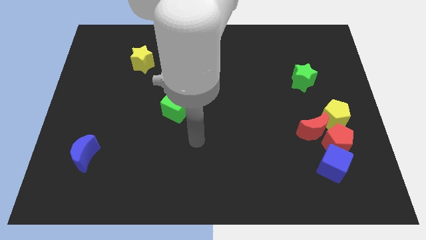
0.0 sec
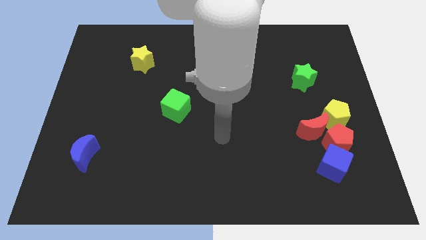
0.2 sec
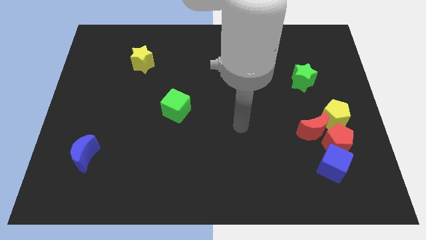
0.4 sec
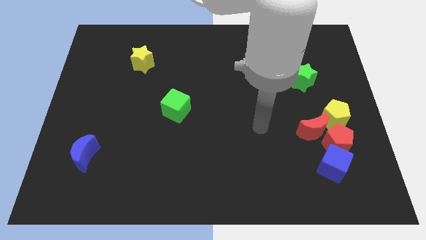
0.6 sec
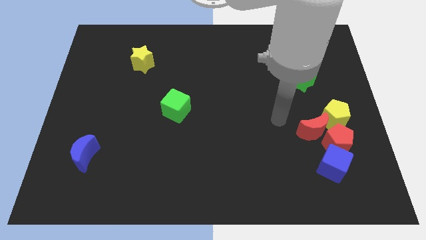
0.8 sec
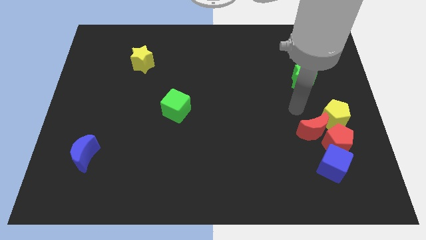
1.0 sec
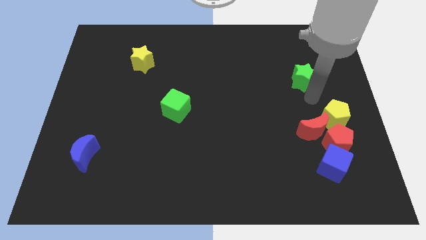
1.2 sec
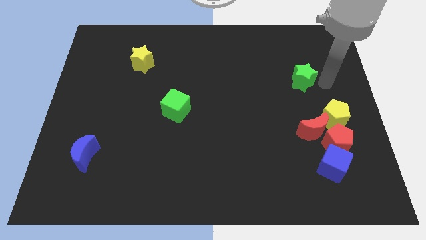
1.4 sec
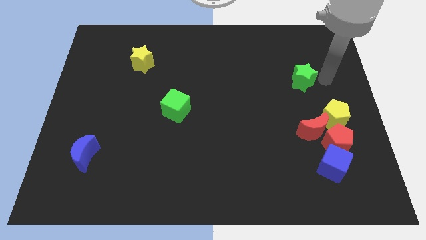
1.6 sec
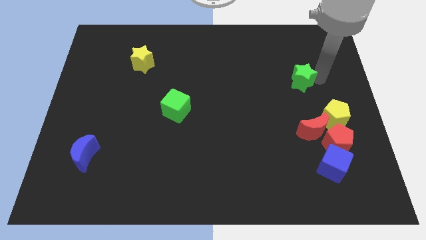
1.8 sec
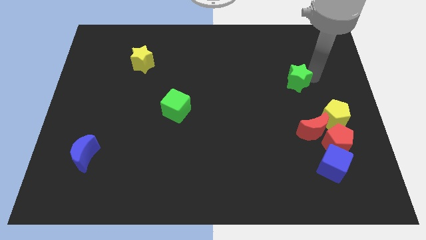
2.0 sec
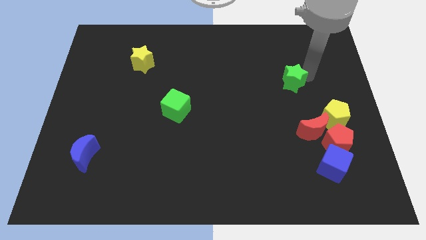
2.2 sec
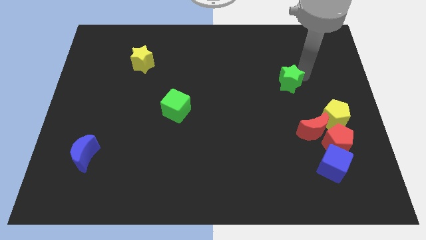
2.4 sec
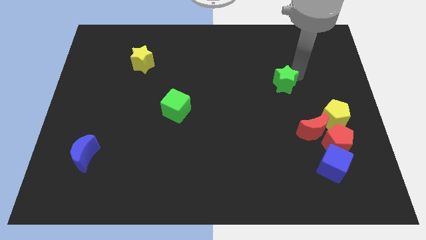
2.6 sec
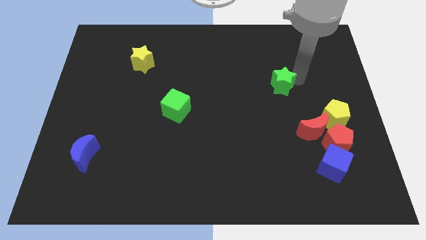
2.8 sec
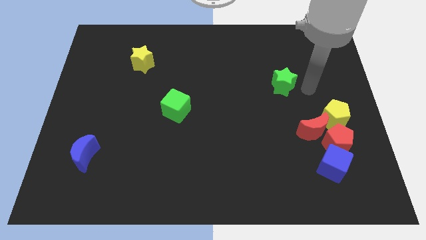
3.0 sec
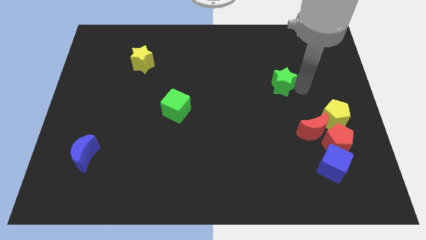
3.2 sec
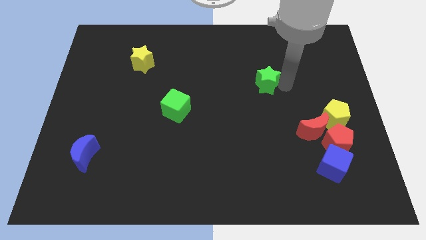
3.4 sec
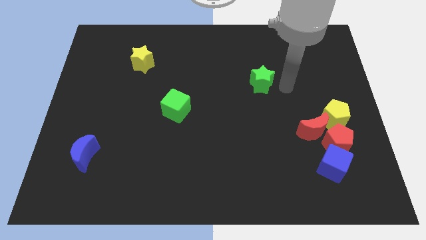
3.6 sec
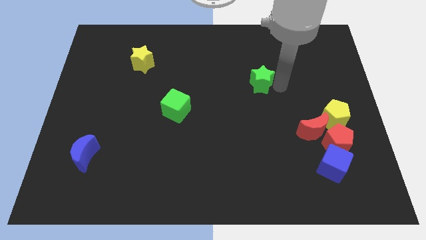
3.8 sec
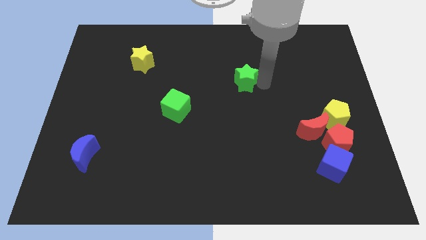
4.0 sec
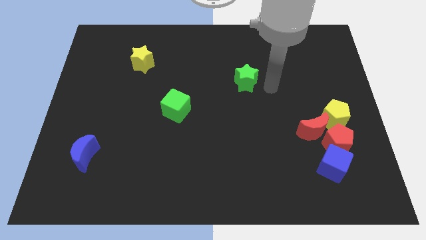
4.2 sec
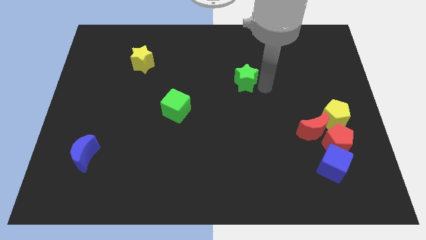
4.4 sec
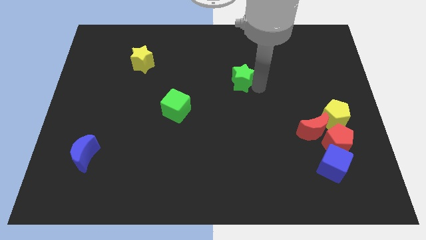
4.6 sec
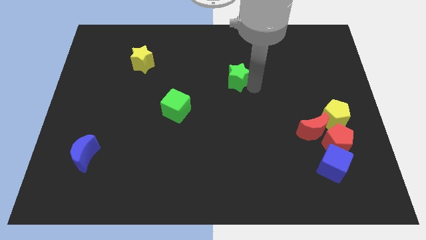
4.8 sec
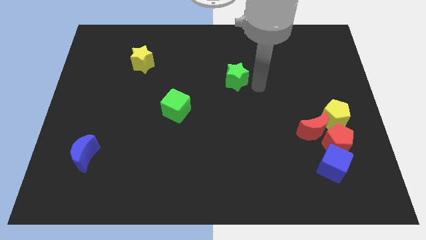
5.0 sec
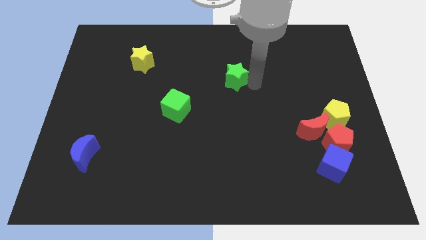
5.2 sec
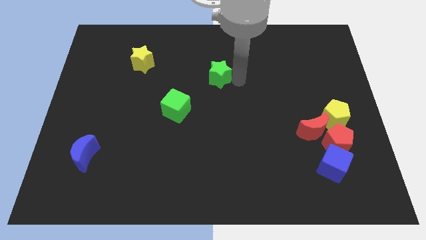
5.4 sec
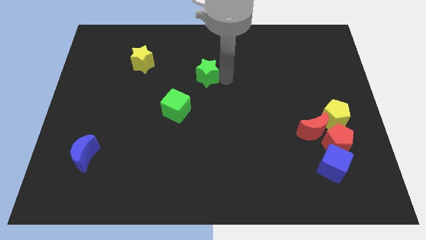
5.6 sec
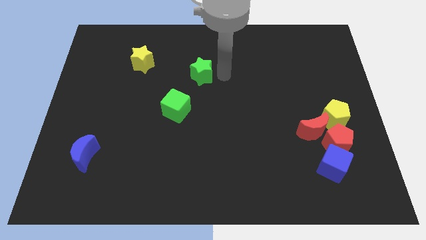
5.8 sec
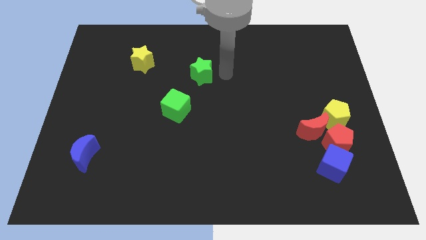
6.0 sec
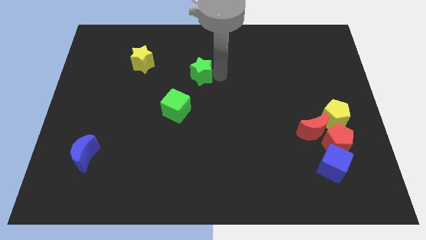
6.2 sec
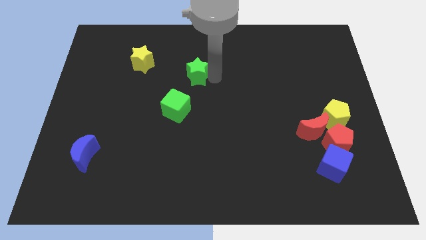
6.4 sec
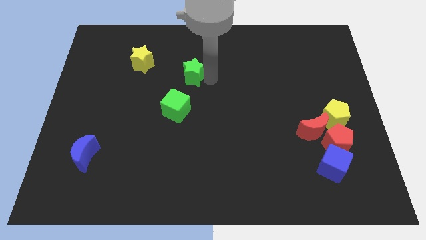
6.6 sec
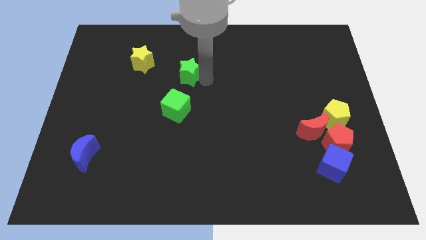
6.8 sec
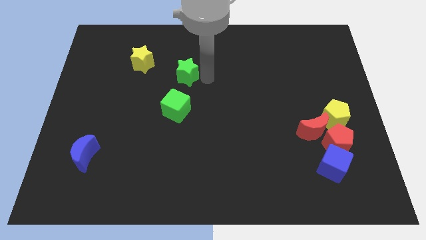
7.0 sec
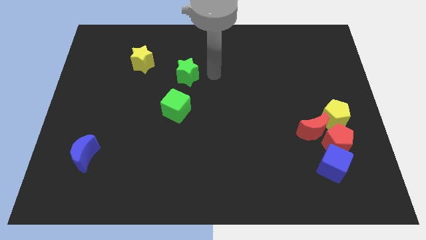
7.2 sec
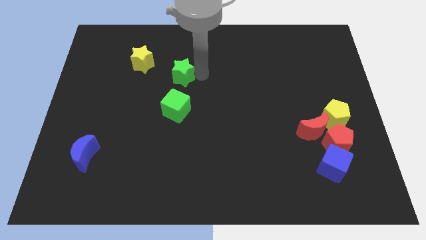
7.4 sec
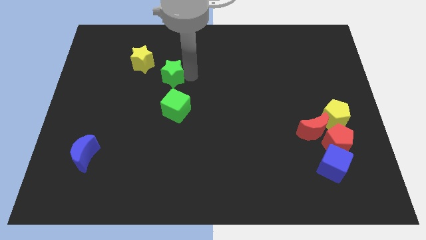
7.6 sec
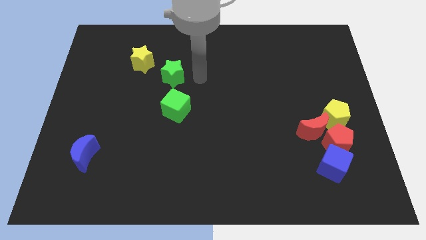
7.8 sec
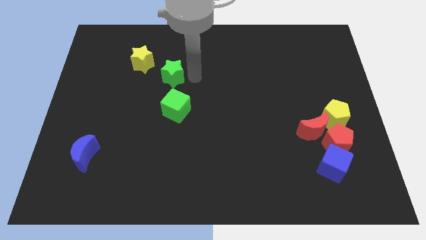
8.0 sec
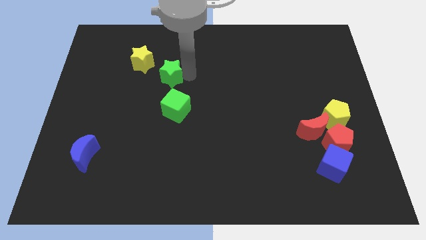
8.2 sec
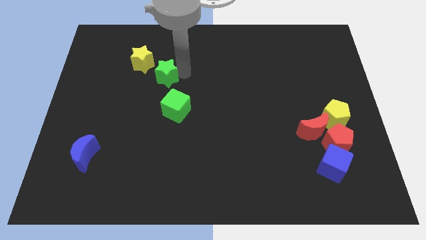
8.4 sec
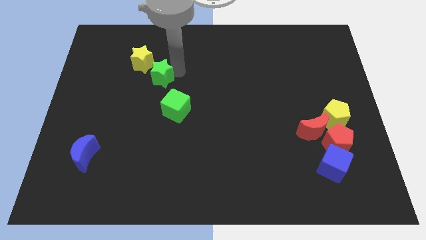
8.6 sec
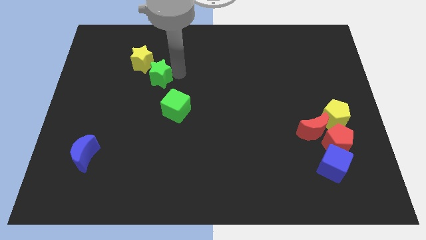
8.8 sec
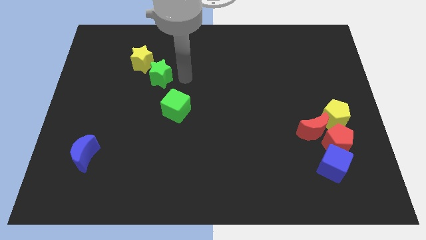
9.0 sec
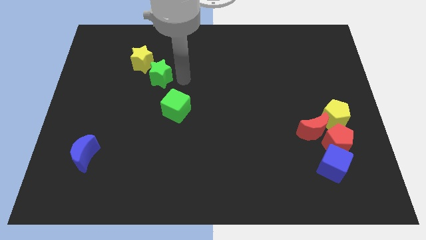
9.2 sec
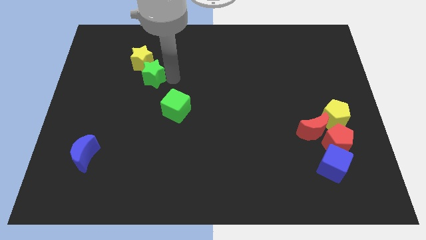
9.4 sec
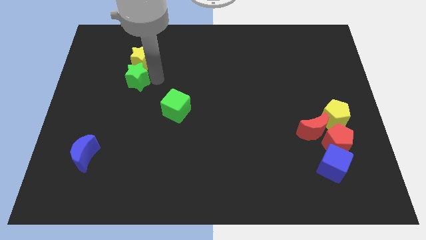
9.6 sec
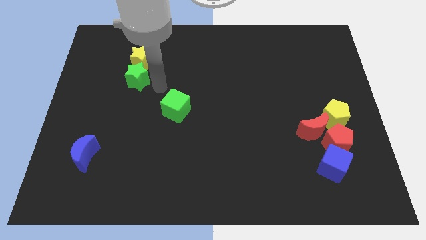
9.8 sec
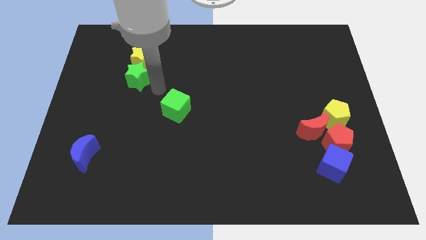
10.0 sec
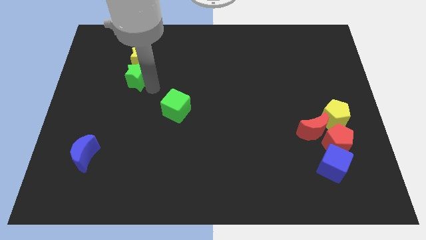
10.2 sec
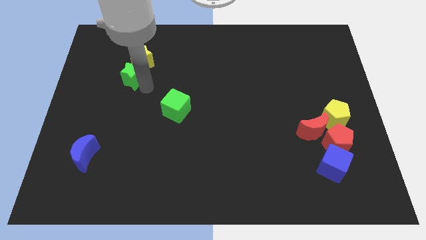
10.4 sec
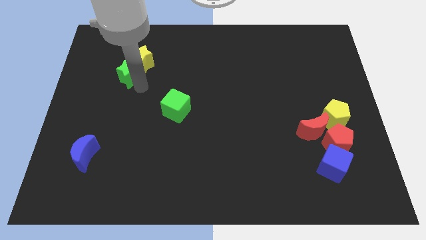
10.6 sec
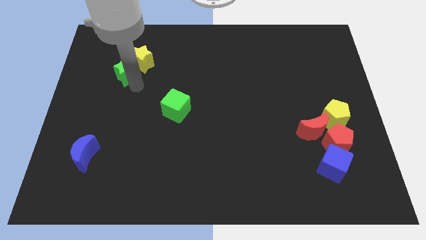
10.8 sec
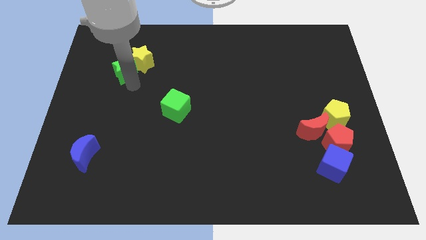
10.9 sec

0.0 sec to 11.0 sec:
push the green star to the left side of the yellow star

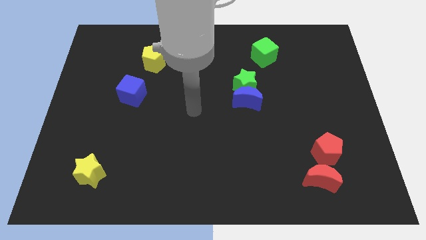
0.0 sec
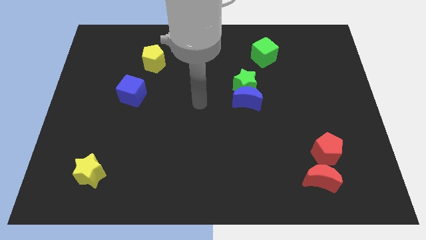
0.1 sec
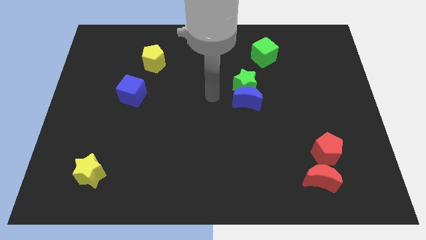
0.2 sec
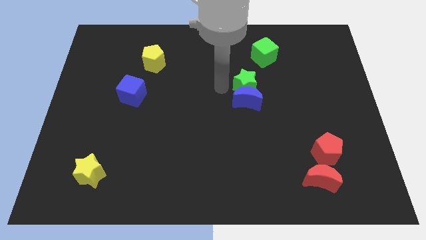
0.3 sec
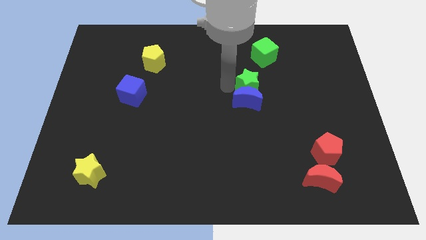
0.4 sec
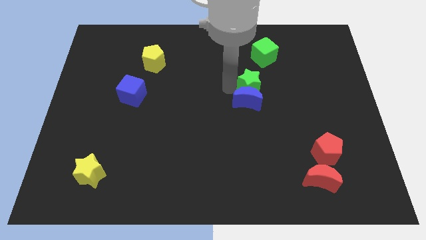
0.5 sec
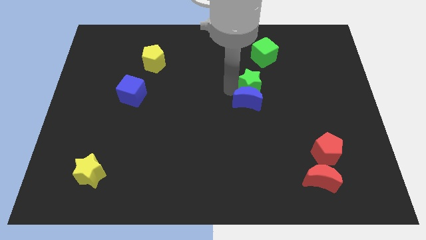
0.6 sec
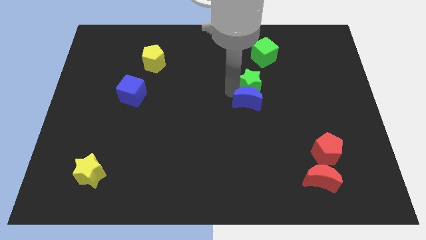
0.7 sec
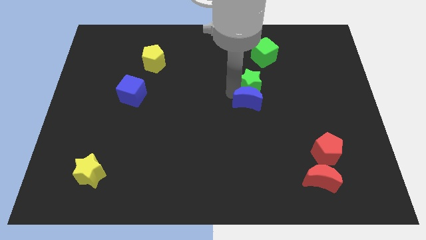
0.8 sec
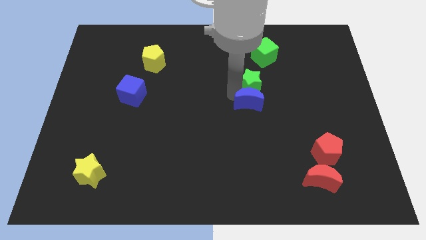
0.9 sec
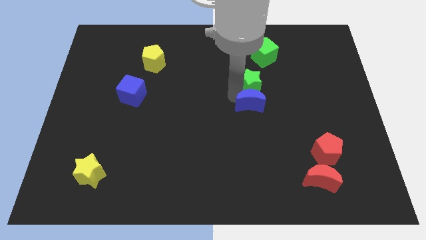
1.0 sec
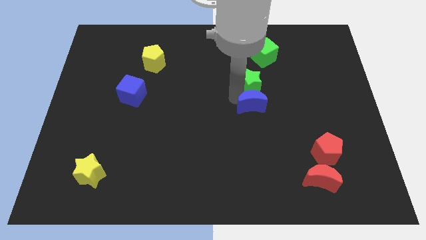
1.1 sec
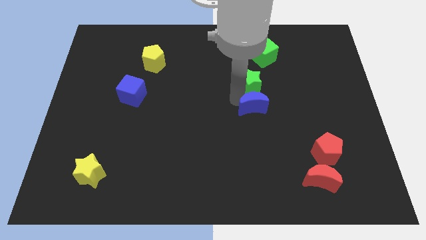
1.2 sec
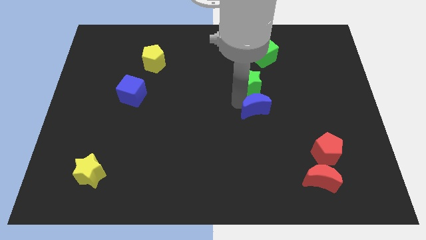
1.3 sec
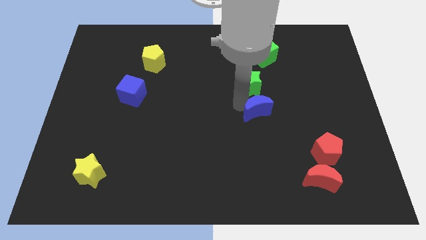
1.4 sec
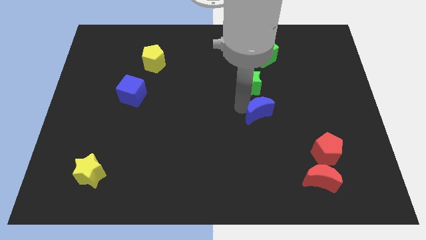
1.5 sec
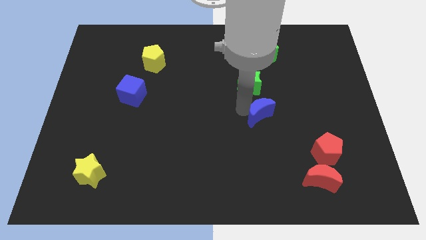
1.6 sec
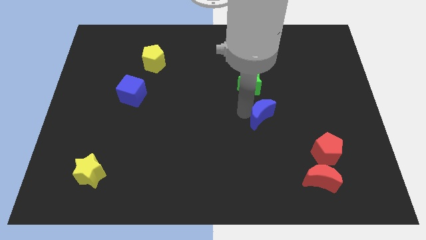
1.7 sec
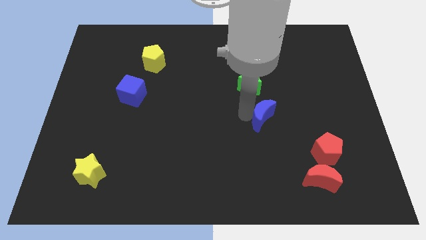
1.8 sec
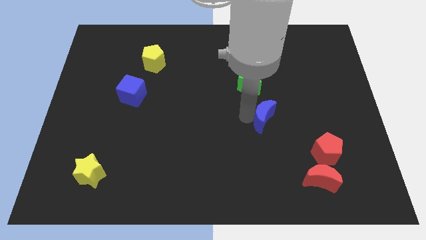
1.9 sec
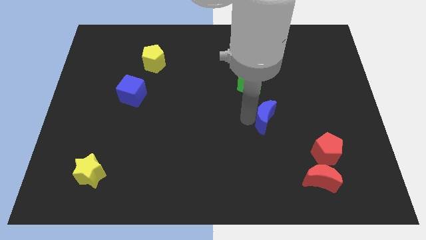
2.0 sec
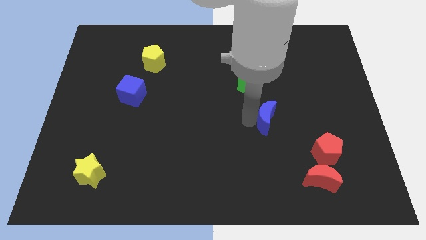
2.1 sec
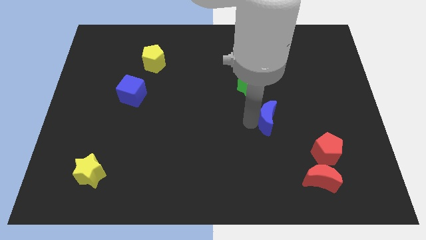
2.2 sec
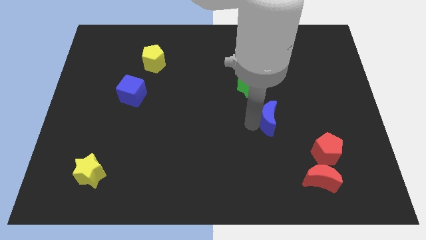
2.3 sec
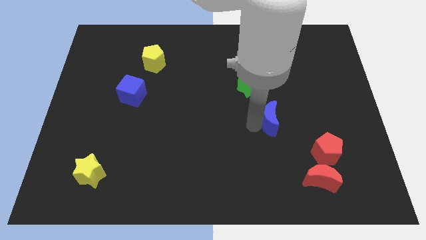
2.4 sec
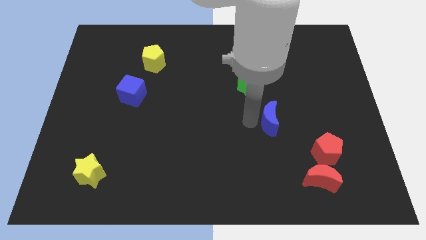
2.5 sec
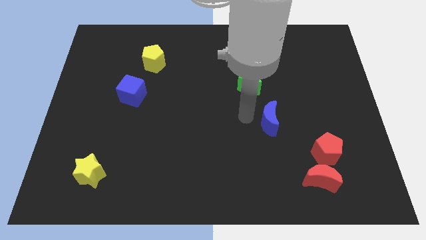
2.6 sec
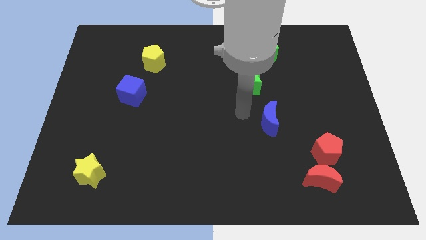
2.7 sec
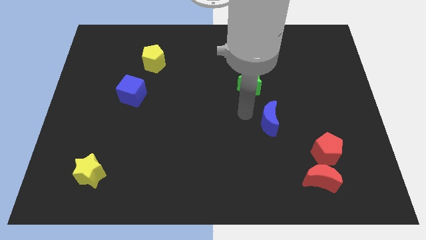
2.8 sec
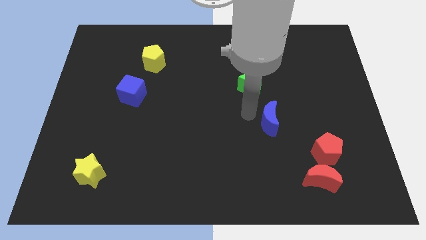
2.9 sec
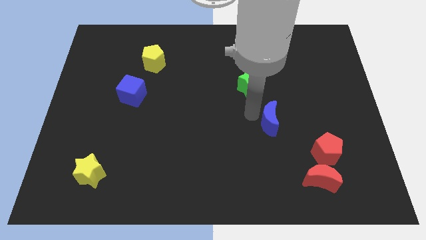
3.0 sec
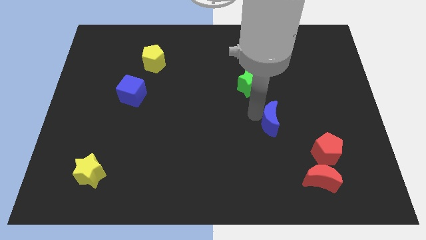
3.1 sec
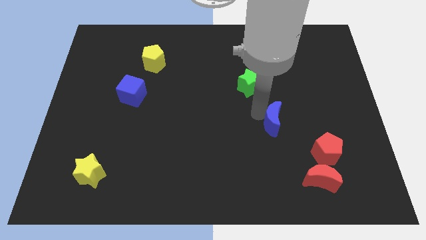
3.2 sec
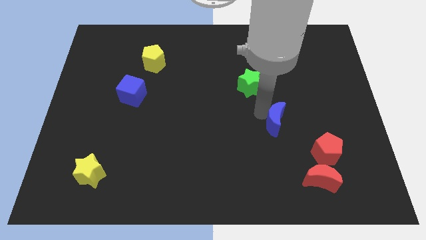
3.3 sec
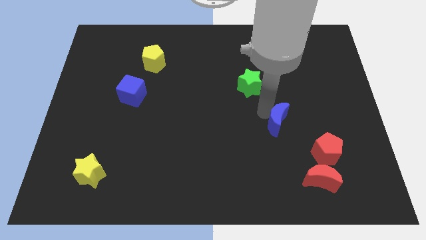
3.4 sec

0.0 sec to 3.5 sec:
push the blue moon diagonally up and to the left of the red pentagon
